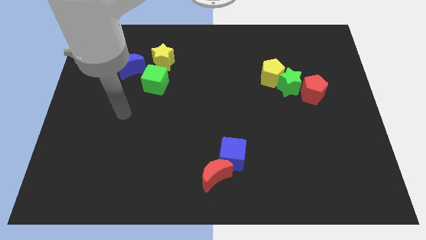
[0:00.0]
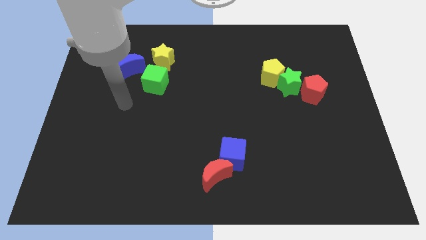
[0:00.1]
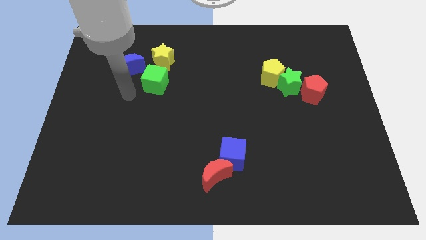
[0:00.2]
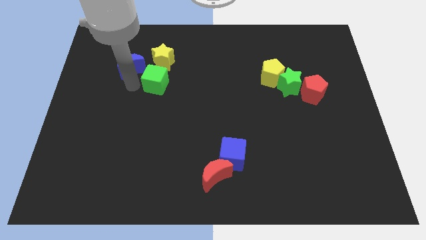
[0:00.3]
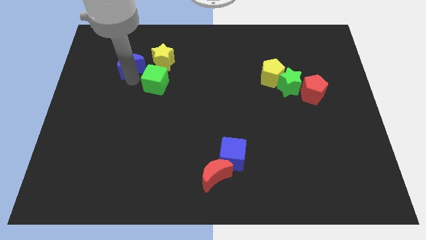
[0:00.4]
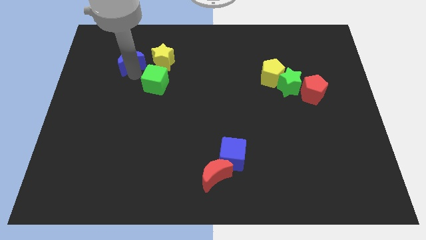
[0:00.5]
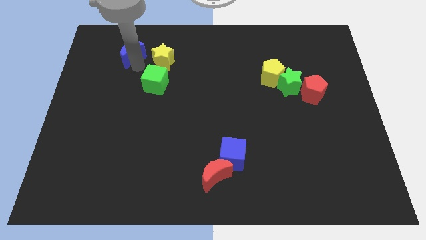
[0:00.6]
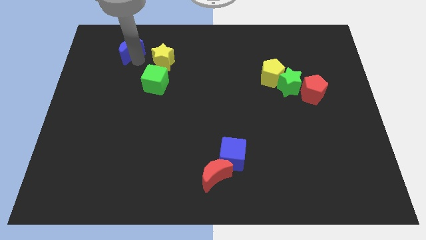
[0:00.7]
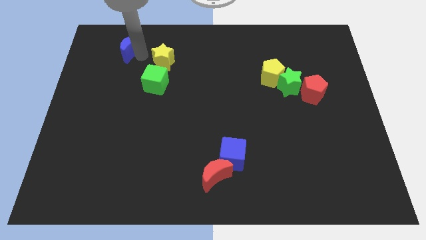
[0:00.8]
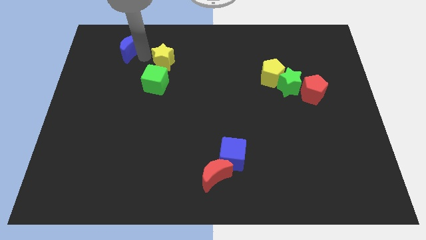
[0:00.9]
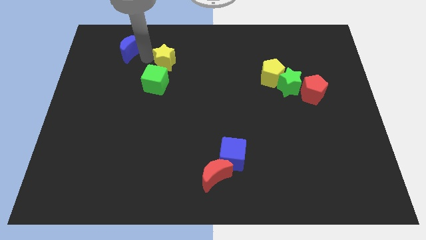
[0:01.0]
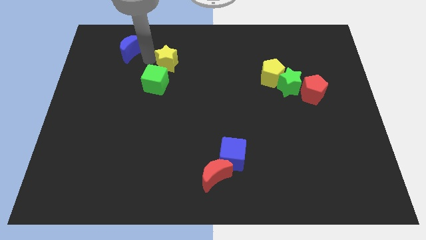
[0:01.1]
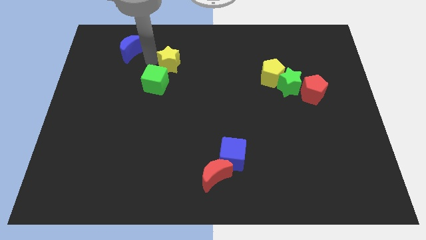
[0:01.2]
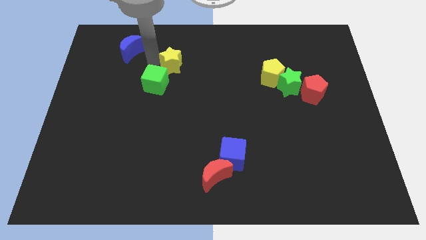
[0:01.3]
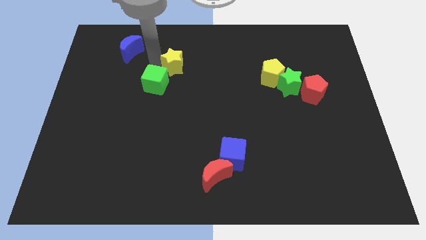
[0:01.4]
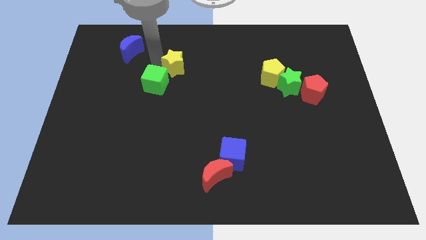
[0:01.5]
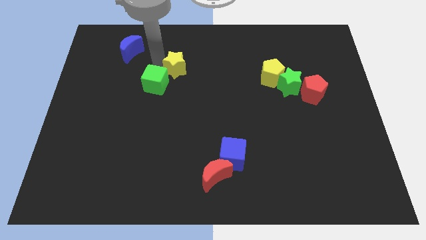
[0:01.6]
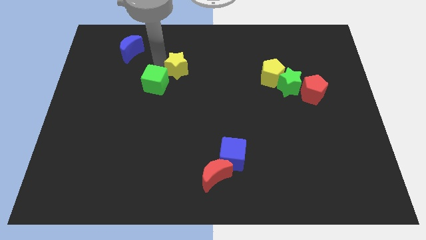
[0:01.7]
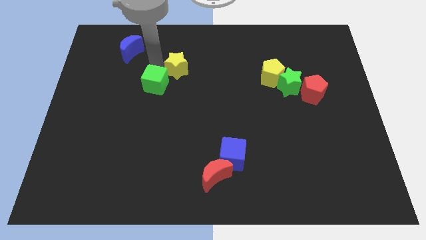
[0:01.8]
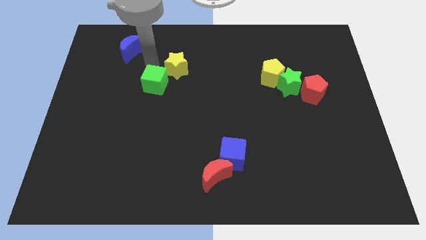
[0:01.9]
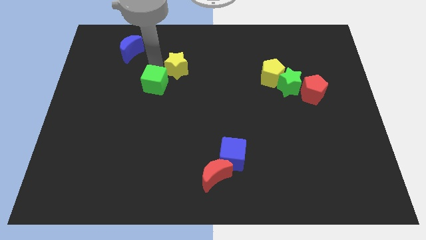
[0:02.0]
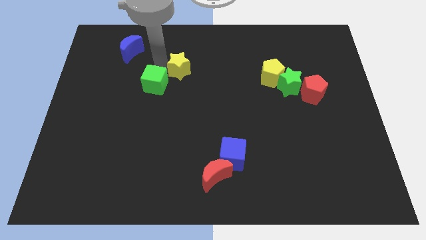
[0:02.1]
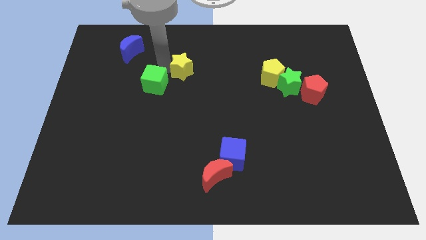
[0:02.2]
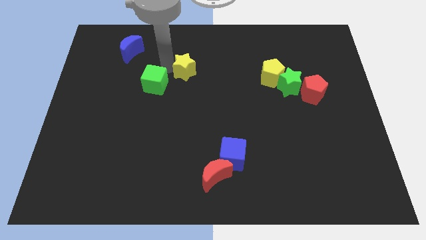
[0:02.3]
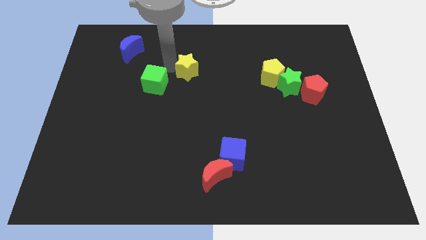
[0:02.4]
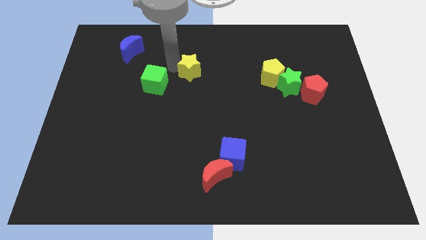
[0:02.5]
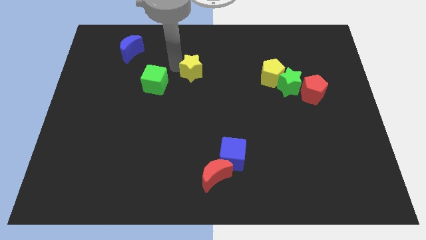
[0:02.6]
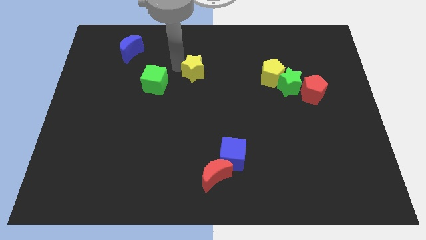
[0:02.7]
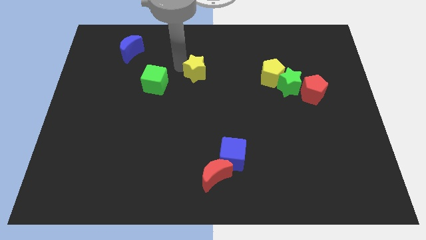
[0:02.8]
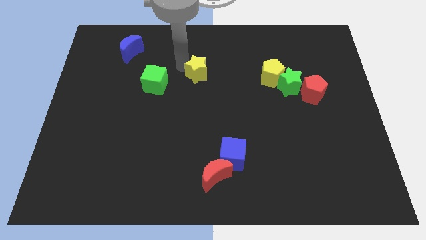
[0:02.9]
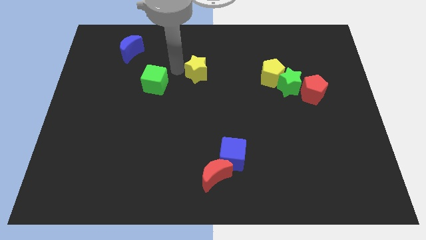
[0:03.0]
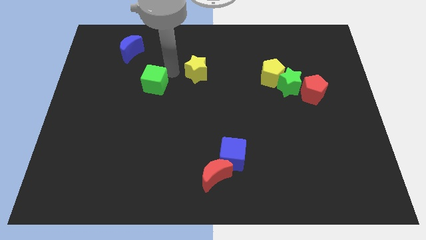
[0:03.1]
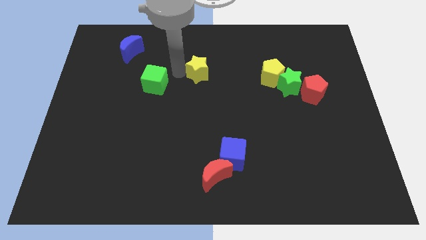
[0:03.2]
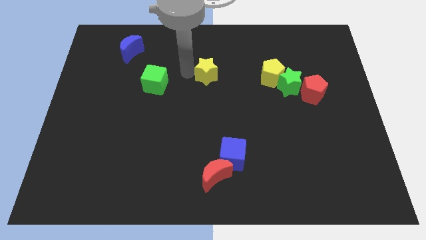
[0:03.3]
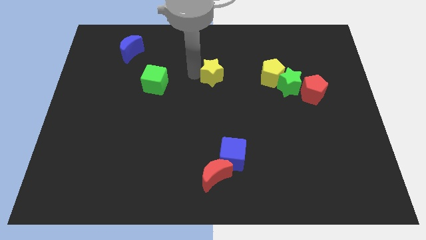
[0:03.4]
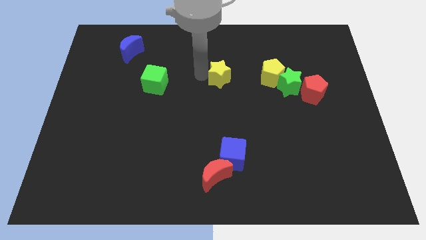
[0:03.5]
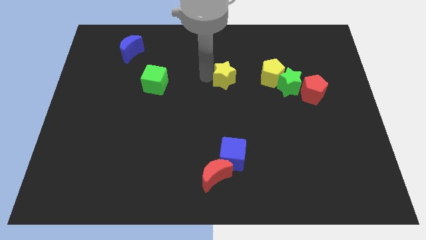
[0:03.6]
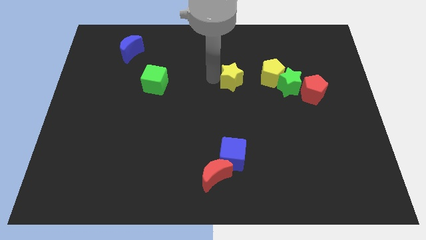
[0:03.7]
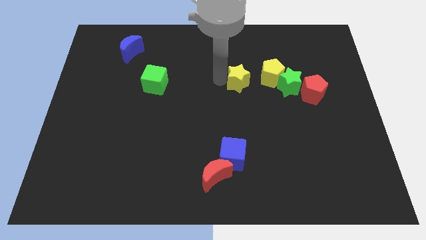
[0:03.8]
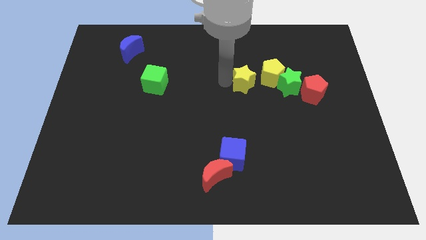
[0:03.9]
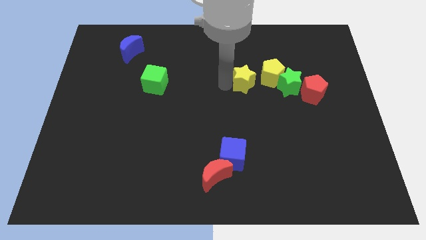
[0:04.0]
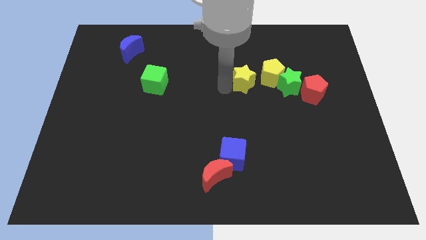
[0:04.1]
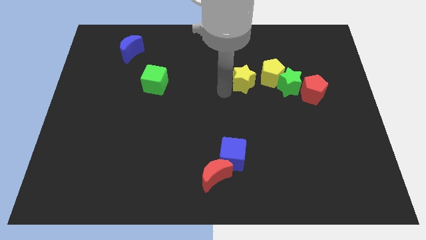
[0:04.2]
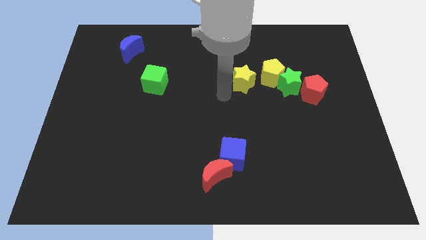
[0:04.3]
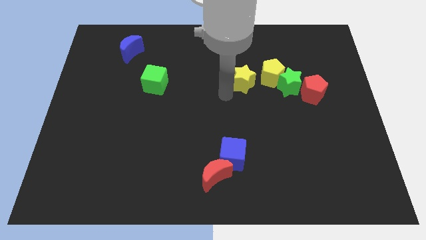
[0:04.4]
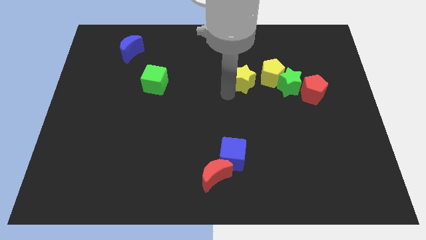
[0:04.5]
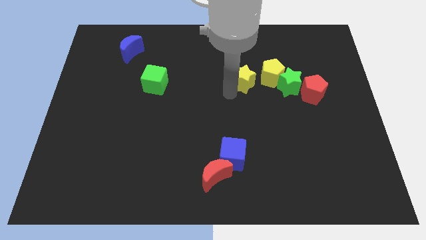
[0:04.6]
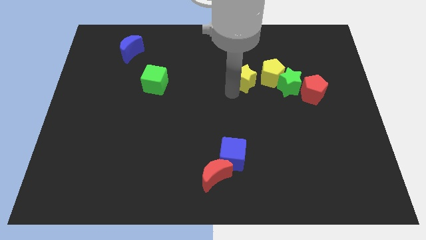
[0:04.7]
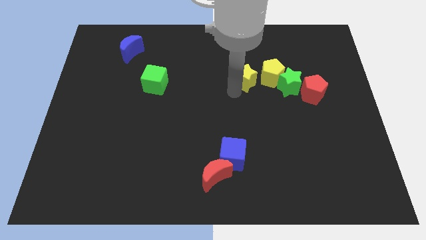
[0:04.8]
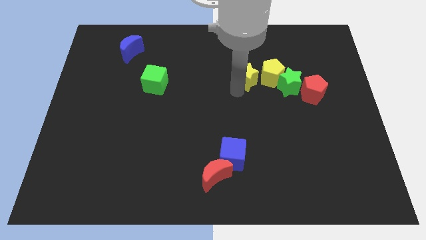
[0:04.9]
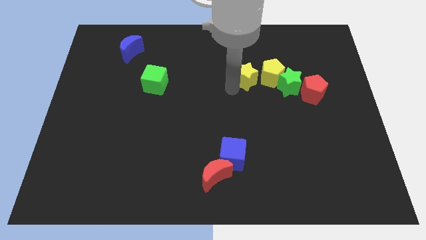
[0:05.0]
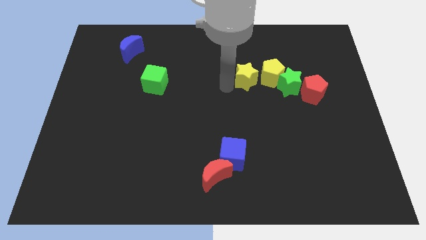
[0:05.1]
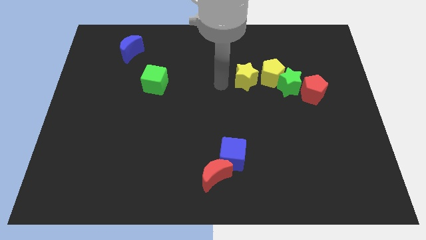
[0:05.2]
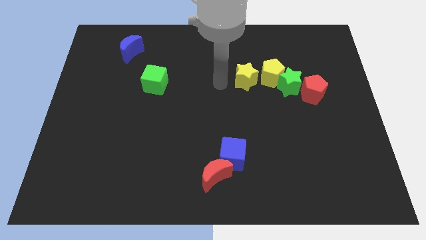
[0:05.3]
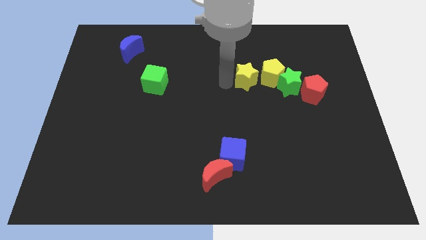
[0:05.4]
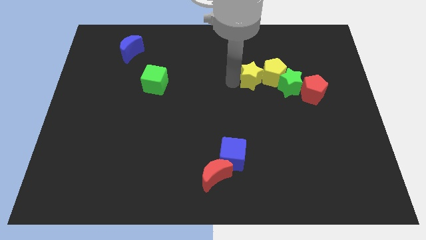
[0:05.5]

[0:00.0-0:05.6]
slide the yellow star towards the yellow pentagon

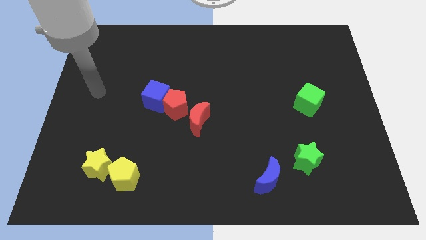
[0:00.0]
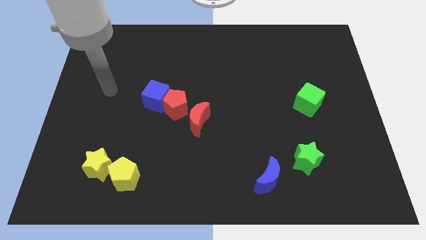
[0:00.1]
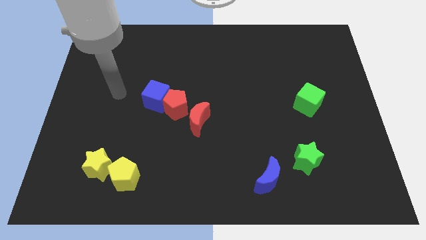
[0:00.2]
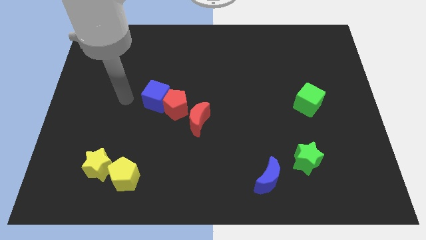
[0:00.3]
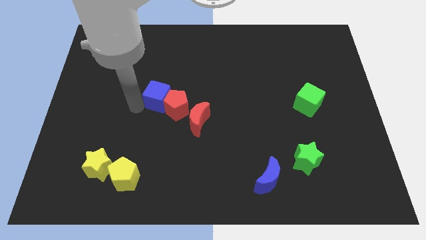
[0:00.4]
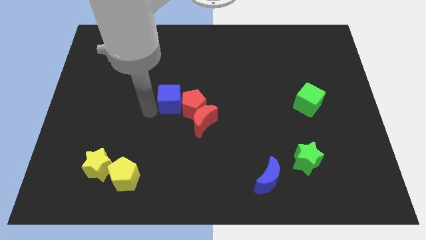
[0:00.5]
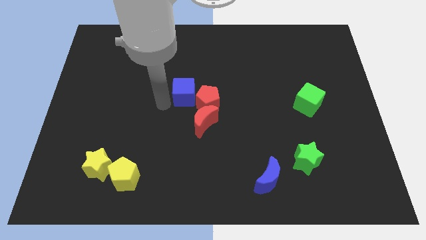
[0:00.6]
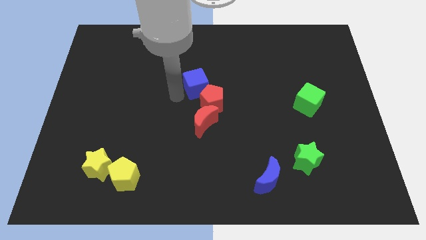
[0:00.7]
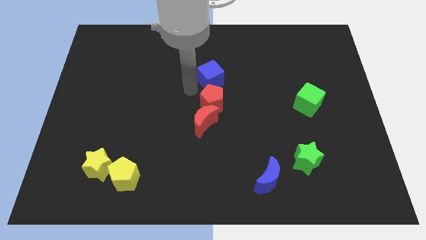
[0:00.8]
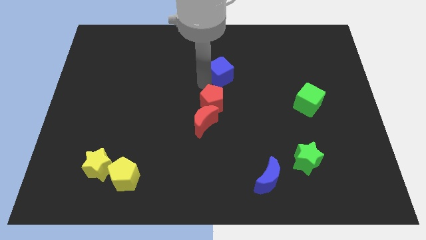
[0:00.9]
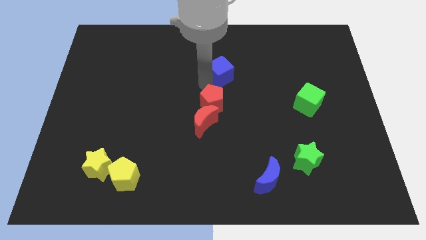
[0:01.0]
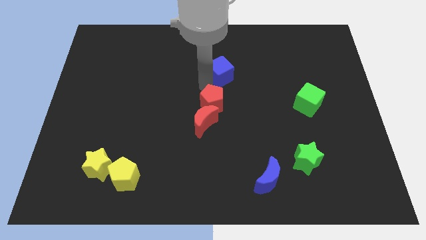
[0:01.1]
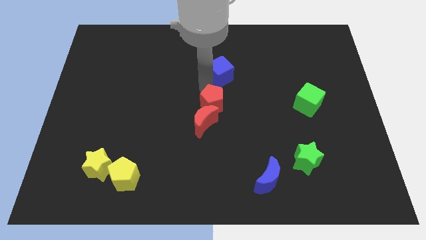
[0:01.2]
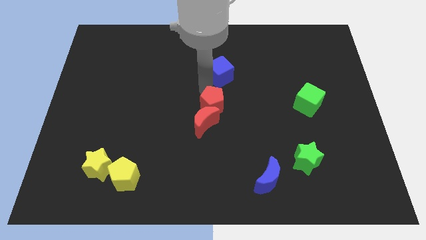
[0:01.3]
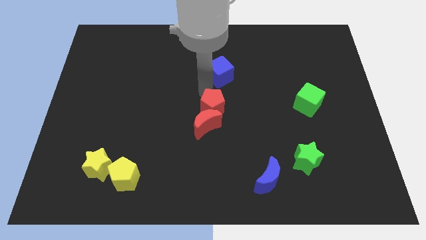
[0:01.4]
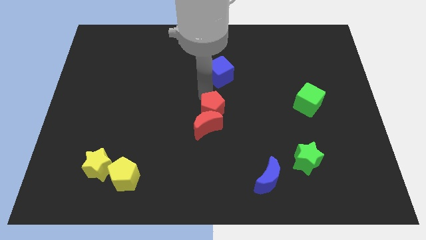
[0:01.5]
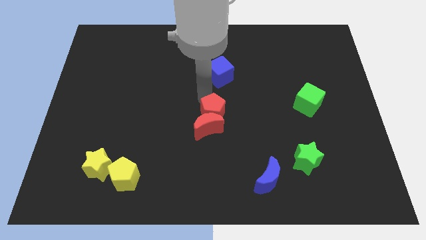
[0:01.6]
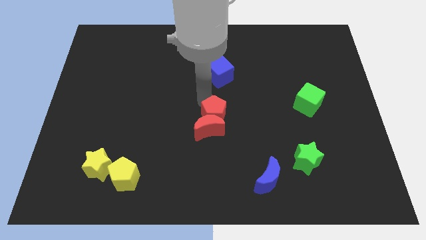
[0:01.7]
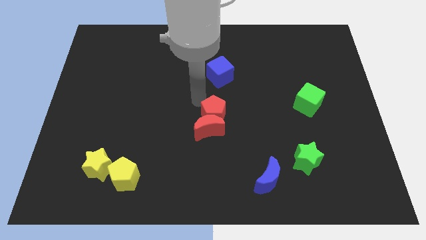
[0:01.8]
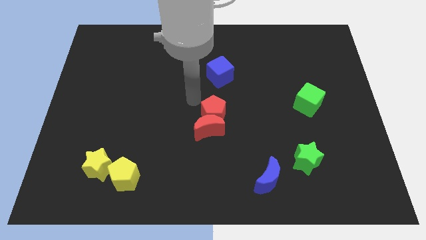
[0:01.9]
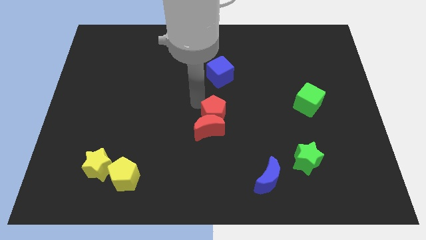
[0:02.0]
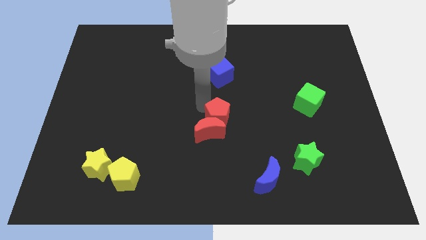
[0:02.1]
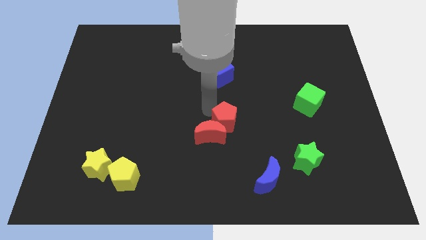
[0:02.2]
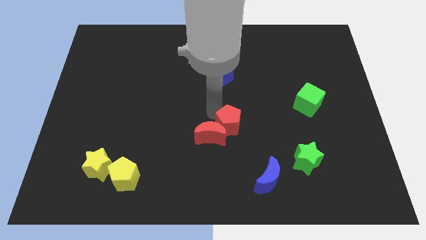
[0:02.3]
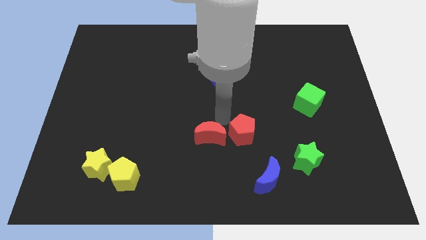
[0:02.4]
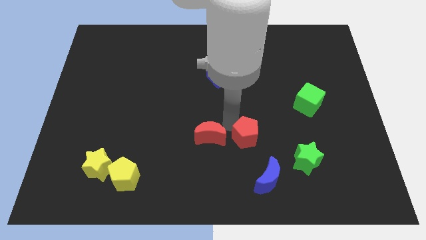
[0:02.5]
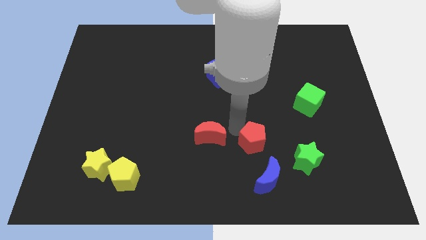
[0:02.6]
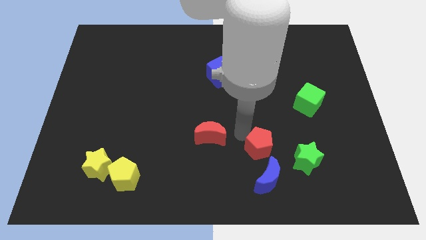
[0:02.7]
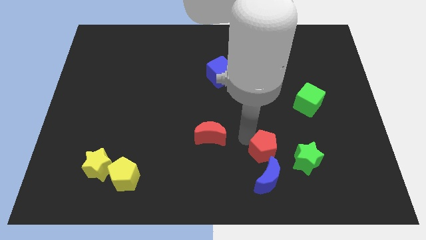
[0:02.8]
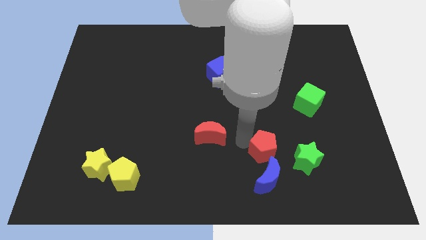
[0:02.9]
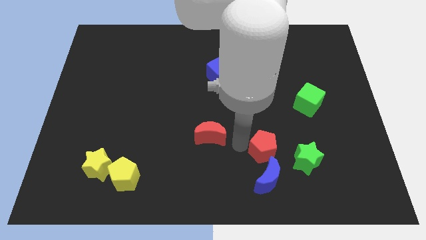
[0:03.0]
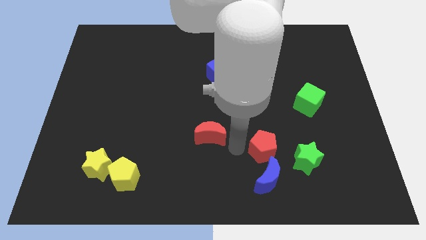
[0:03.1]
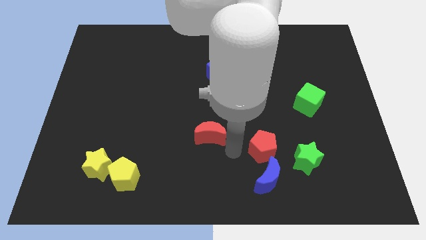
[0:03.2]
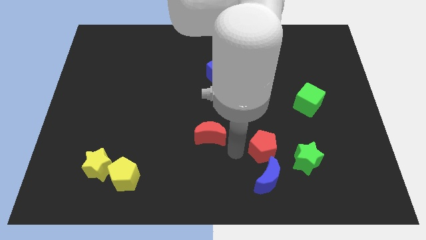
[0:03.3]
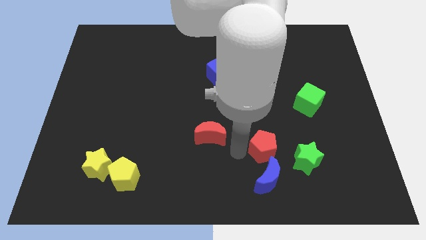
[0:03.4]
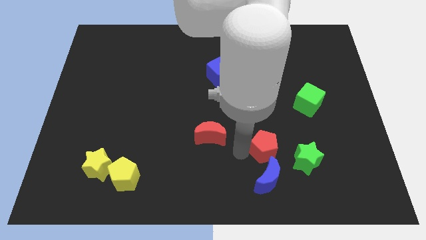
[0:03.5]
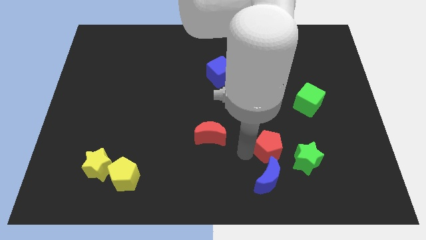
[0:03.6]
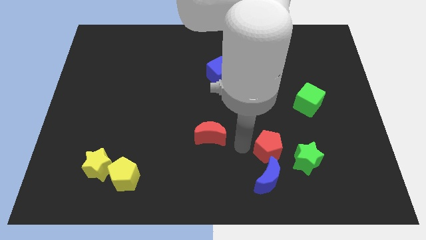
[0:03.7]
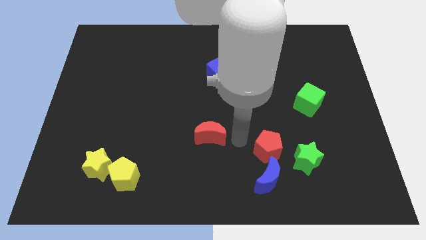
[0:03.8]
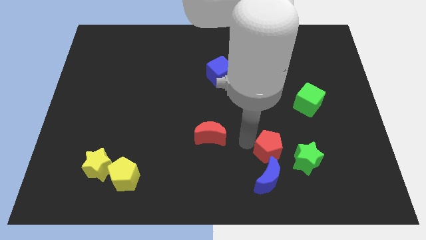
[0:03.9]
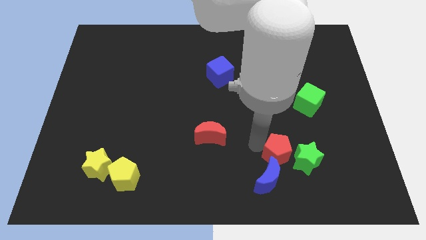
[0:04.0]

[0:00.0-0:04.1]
move the red pentagon next to the green star
